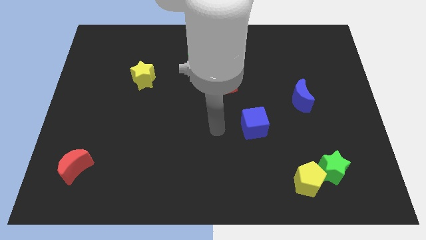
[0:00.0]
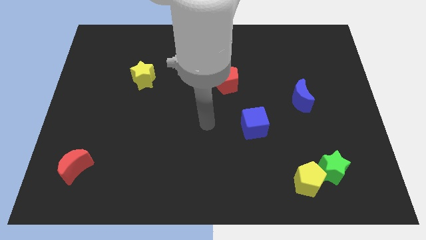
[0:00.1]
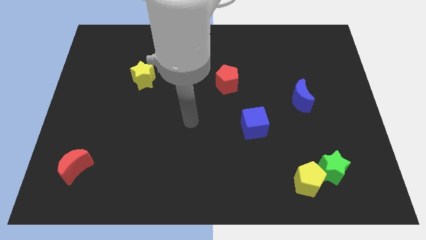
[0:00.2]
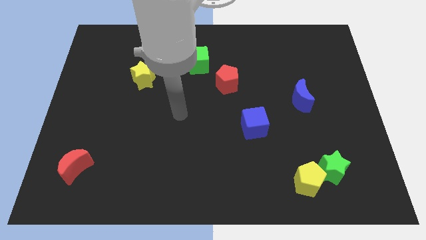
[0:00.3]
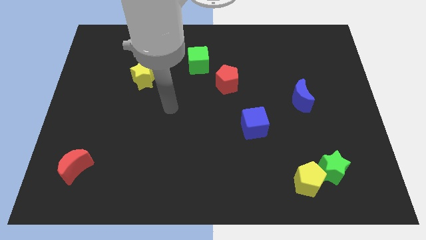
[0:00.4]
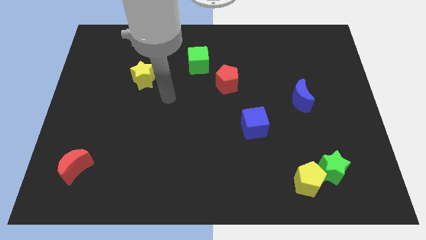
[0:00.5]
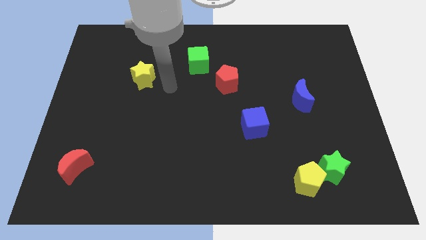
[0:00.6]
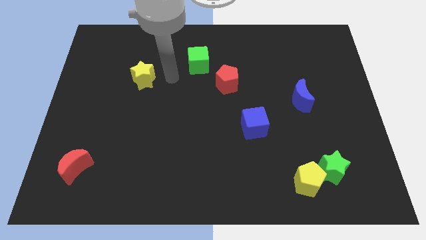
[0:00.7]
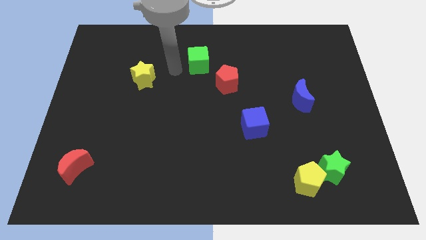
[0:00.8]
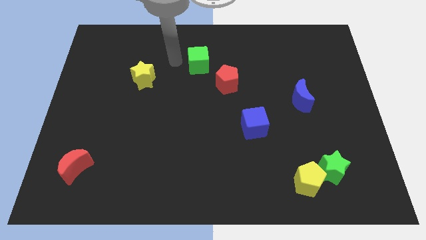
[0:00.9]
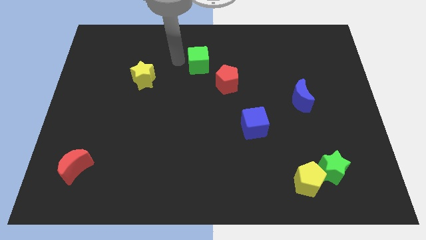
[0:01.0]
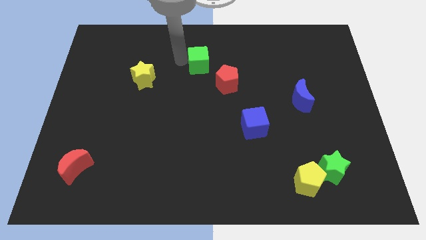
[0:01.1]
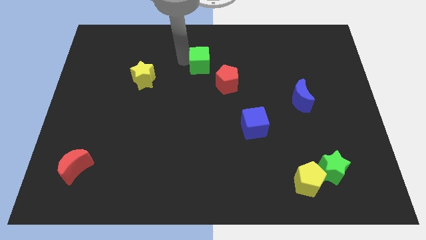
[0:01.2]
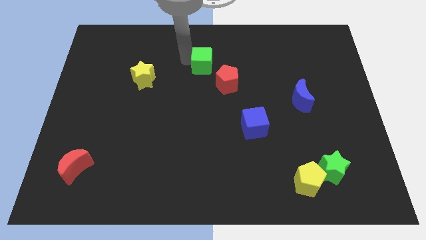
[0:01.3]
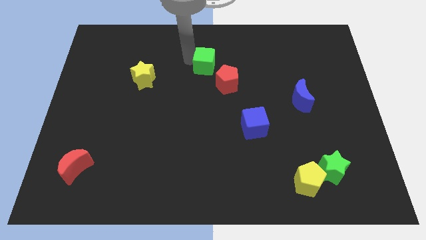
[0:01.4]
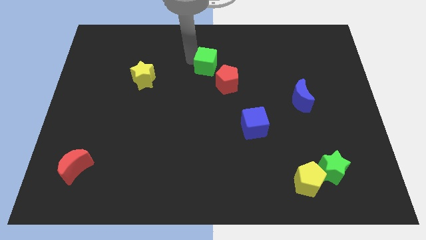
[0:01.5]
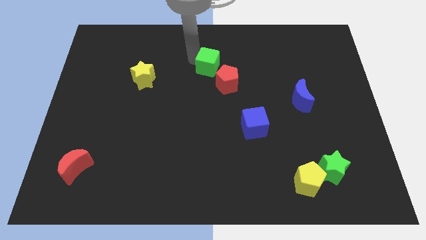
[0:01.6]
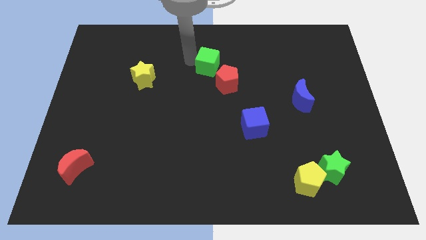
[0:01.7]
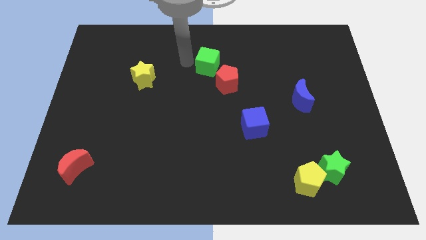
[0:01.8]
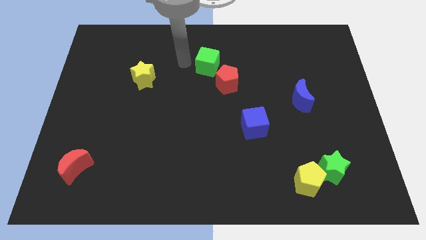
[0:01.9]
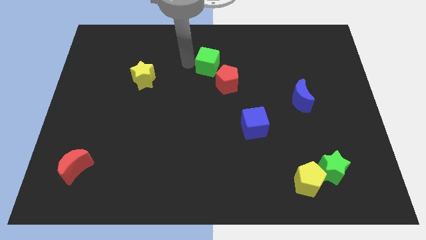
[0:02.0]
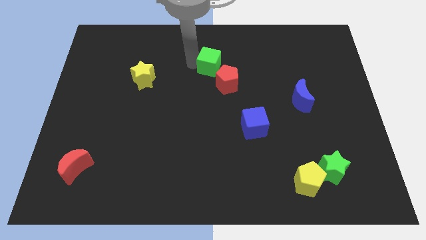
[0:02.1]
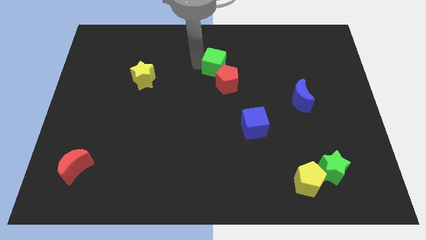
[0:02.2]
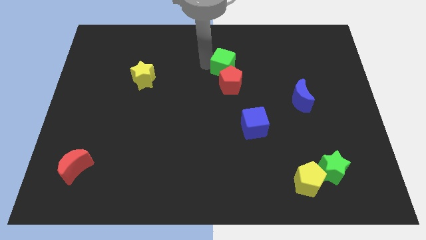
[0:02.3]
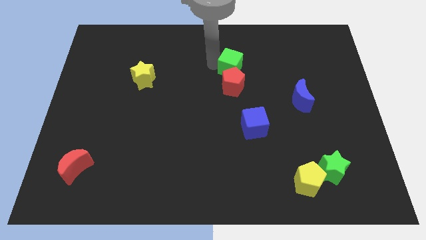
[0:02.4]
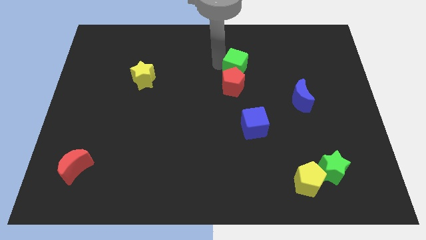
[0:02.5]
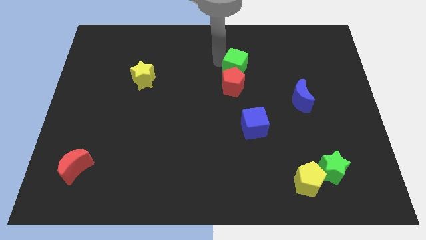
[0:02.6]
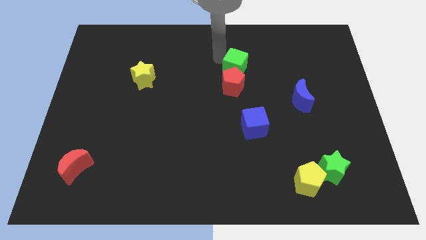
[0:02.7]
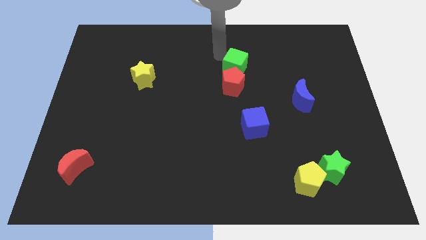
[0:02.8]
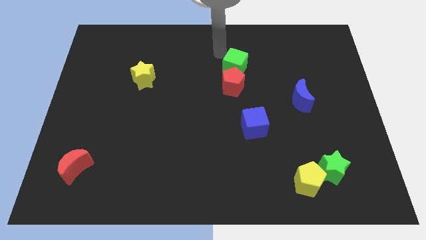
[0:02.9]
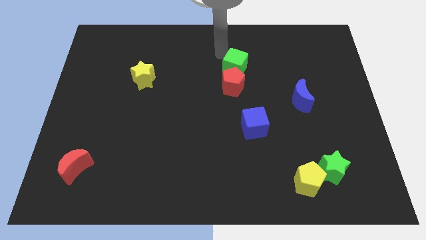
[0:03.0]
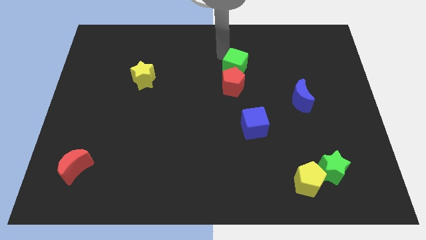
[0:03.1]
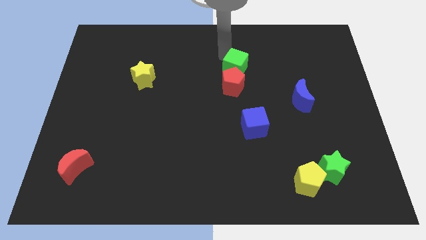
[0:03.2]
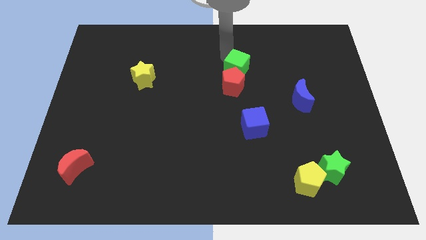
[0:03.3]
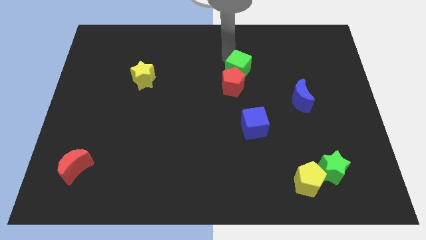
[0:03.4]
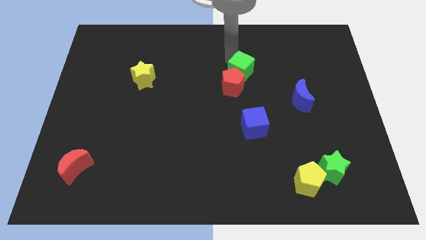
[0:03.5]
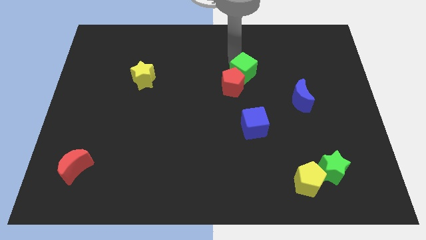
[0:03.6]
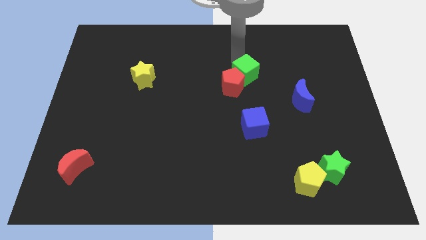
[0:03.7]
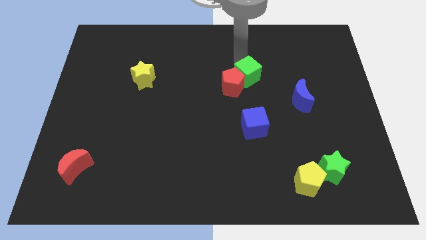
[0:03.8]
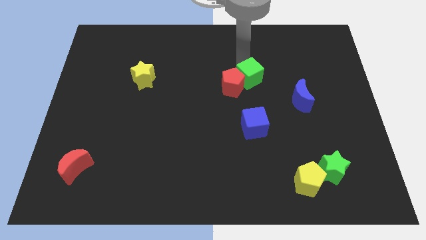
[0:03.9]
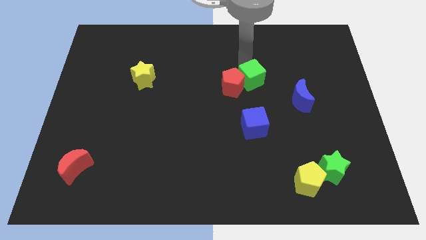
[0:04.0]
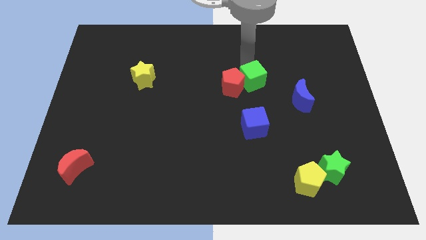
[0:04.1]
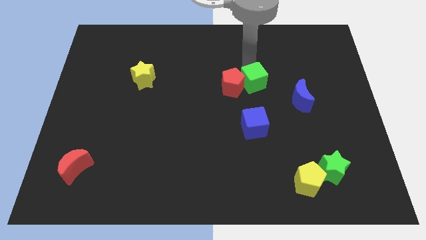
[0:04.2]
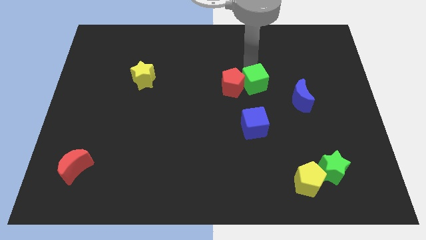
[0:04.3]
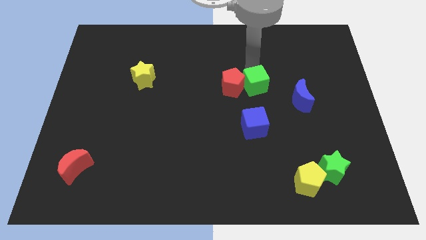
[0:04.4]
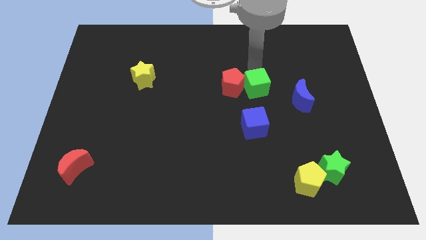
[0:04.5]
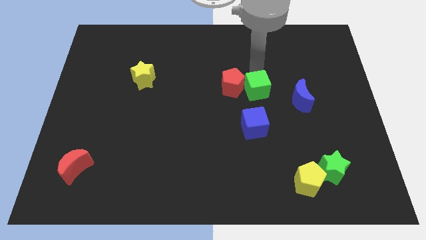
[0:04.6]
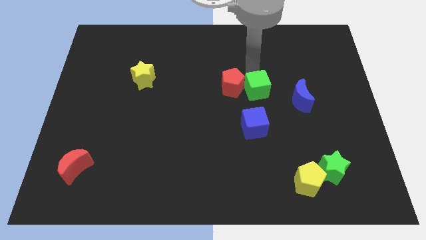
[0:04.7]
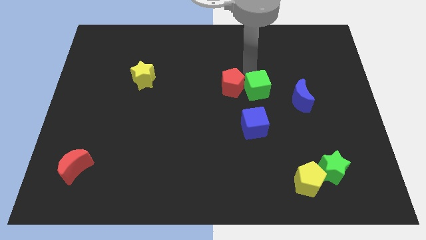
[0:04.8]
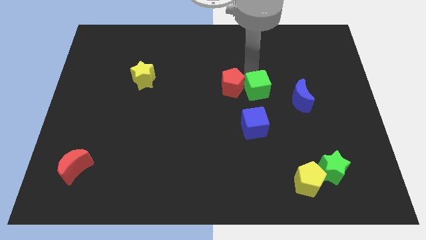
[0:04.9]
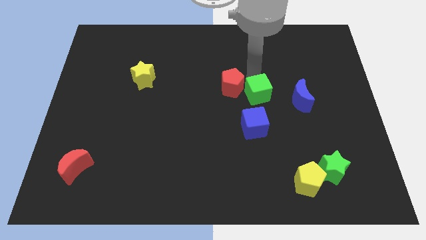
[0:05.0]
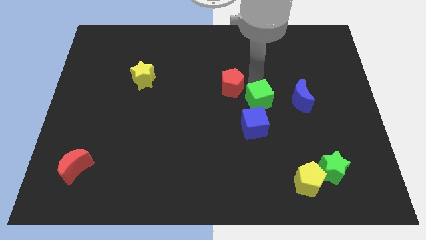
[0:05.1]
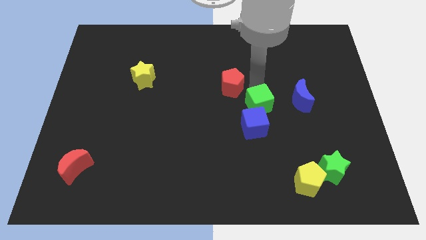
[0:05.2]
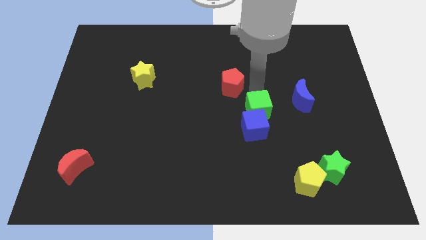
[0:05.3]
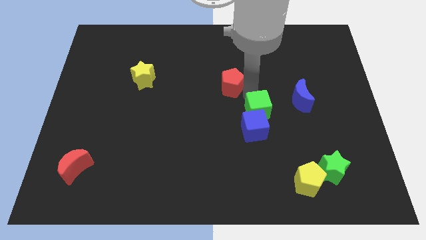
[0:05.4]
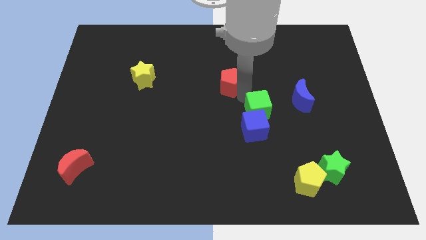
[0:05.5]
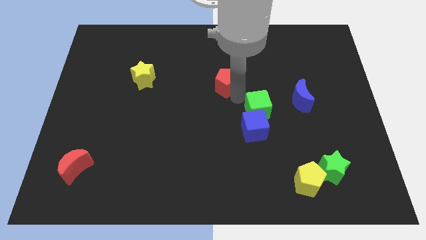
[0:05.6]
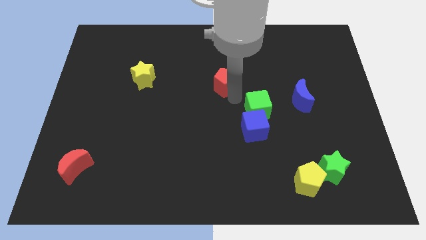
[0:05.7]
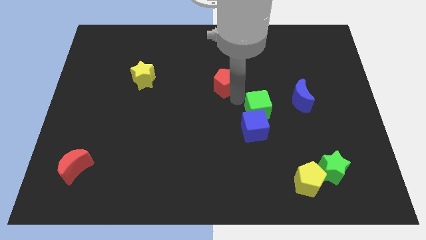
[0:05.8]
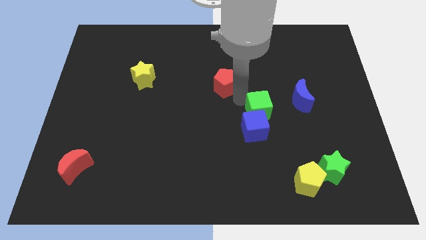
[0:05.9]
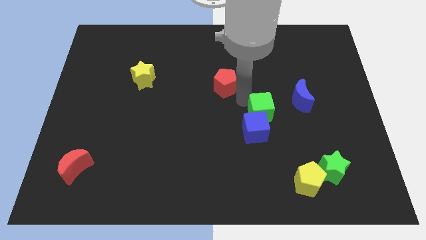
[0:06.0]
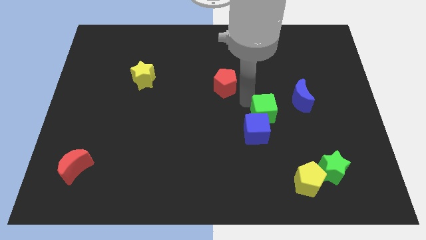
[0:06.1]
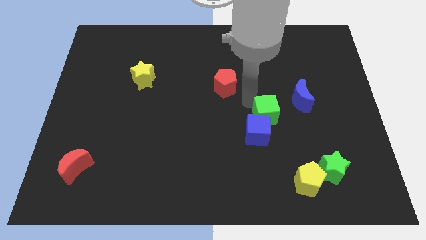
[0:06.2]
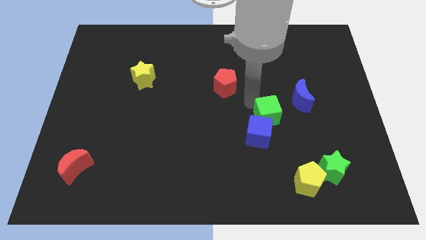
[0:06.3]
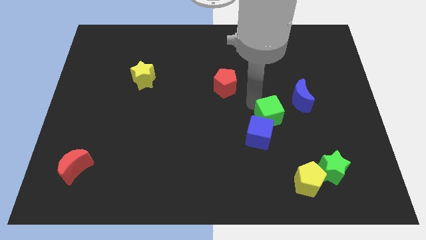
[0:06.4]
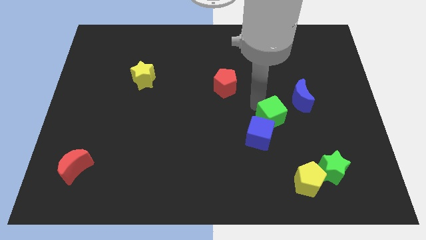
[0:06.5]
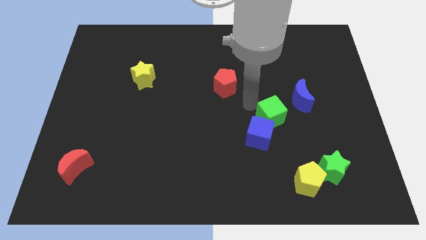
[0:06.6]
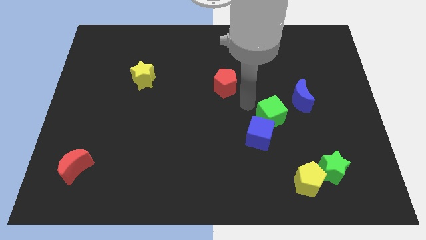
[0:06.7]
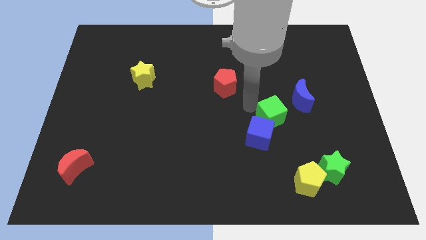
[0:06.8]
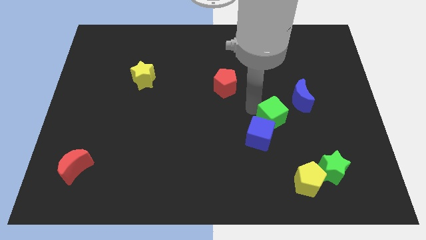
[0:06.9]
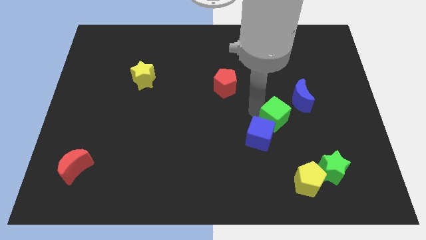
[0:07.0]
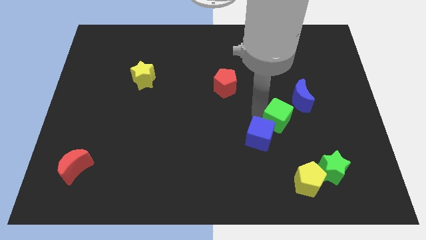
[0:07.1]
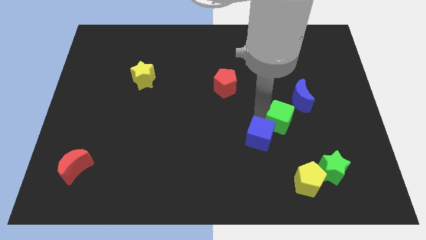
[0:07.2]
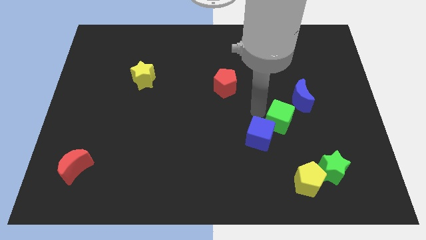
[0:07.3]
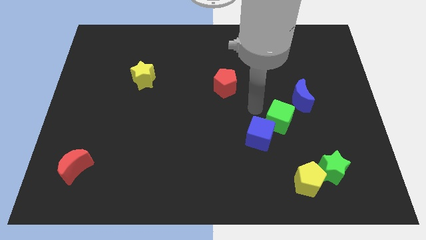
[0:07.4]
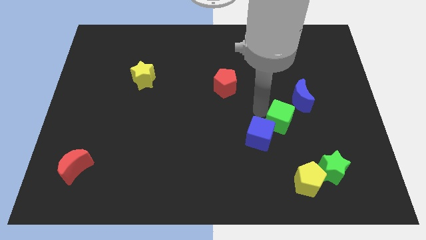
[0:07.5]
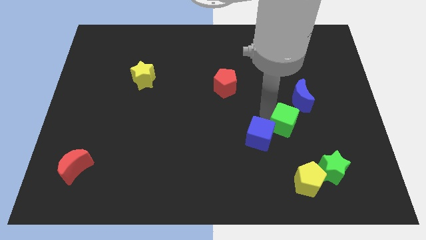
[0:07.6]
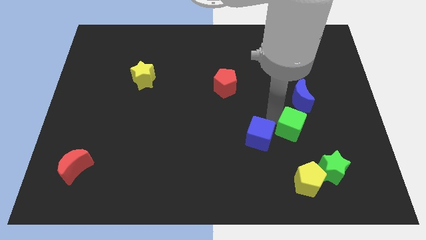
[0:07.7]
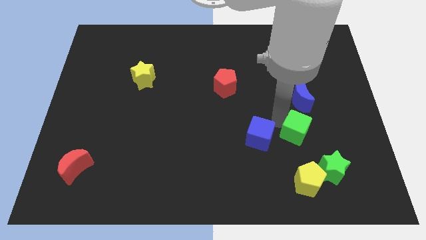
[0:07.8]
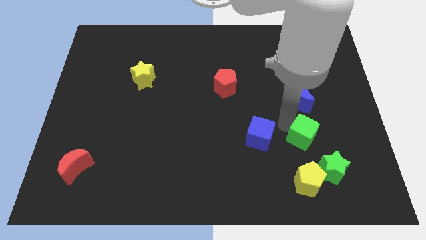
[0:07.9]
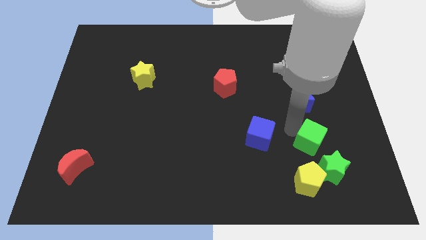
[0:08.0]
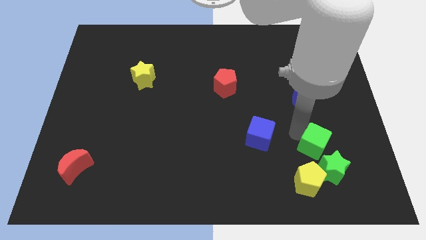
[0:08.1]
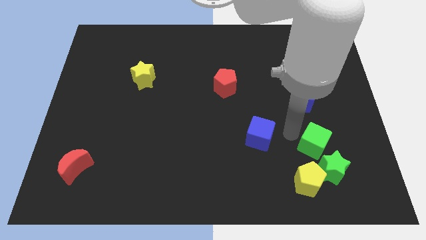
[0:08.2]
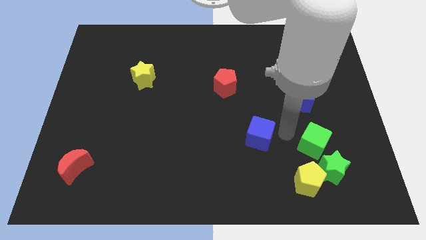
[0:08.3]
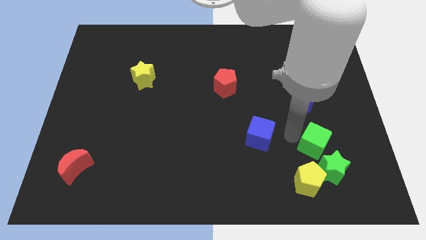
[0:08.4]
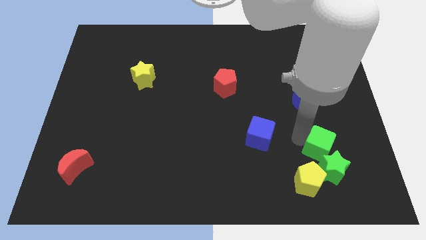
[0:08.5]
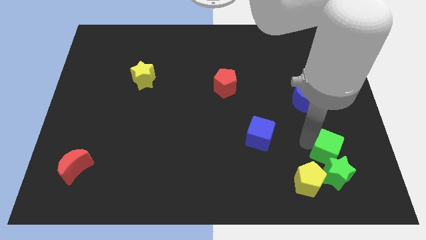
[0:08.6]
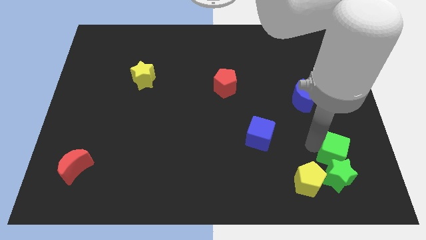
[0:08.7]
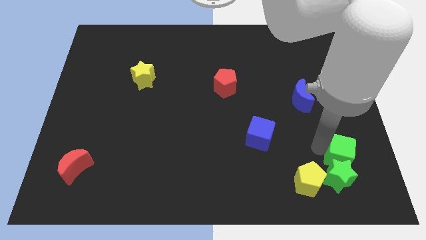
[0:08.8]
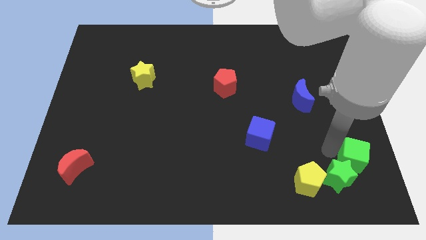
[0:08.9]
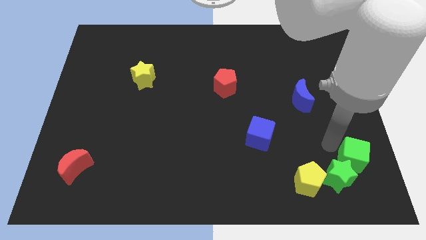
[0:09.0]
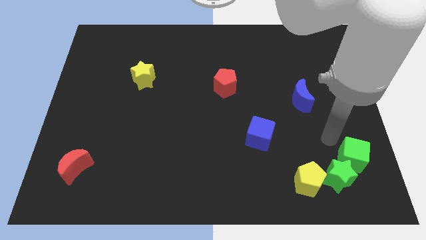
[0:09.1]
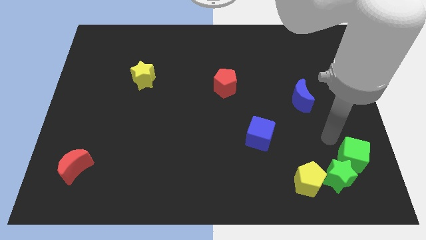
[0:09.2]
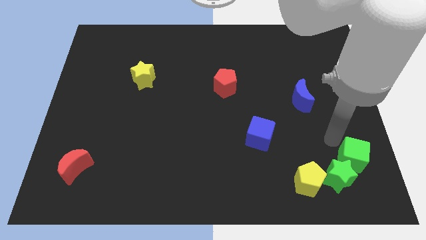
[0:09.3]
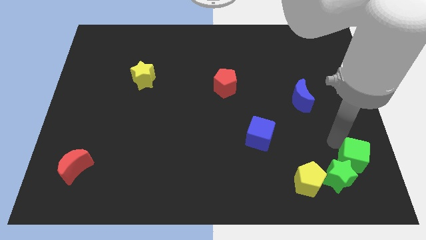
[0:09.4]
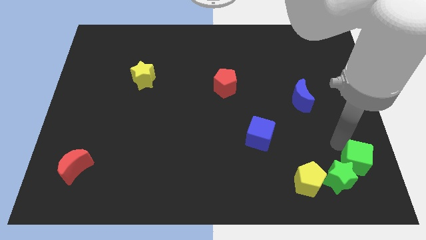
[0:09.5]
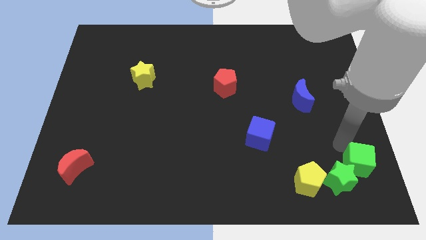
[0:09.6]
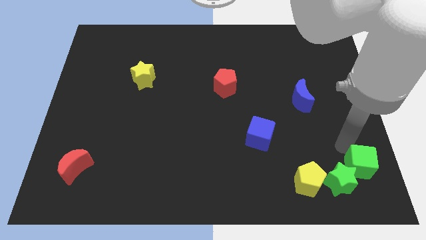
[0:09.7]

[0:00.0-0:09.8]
move the green cube to the bottom right corner
